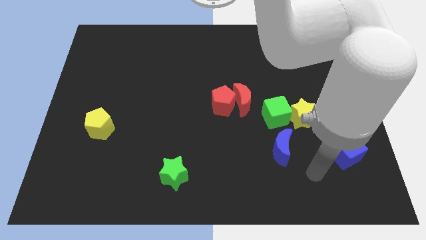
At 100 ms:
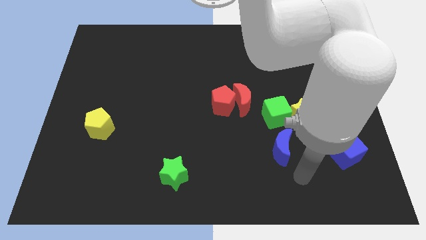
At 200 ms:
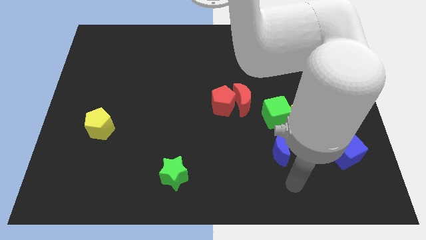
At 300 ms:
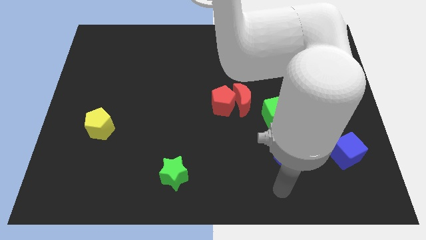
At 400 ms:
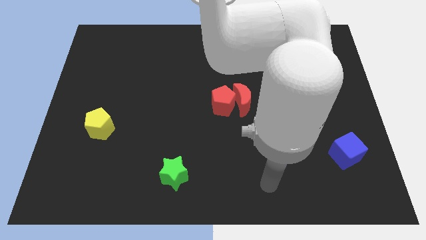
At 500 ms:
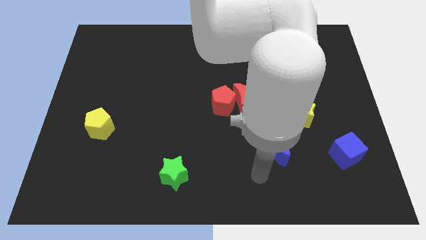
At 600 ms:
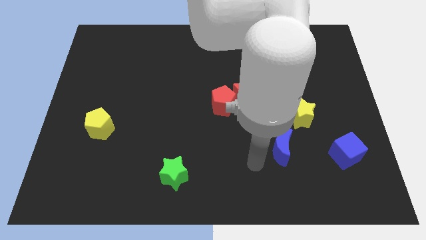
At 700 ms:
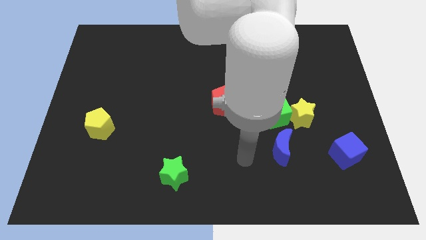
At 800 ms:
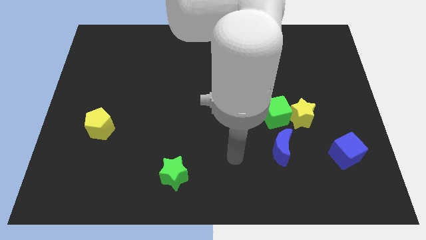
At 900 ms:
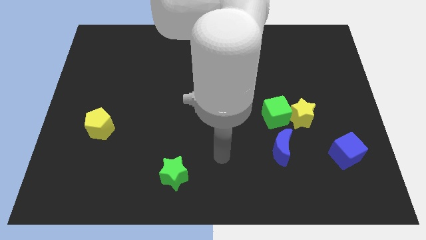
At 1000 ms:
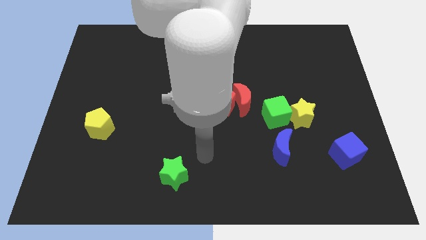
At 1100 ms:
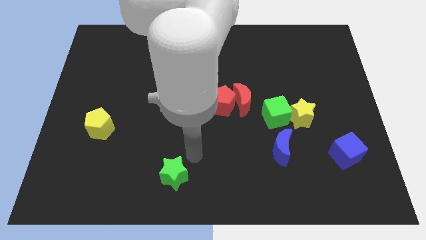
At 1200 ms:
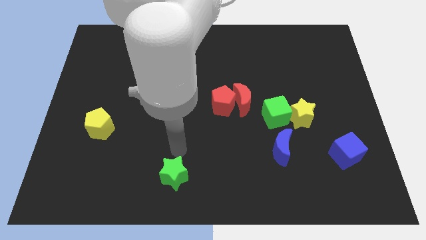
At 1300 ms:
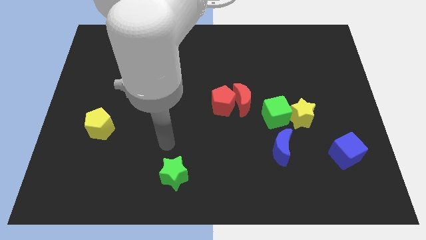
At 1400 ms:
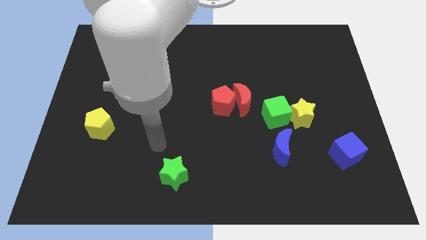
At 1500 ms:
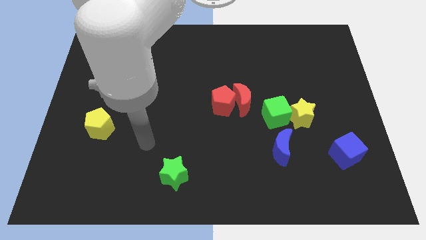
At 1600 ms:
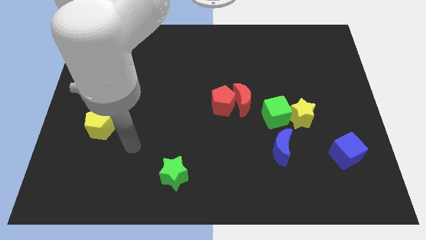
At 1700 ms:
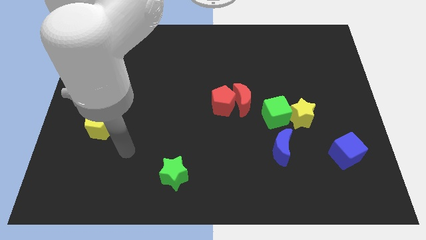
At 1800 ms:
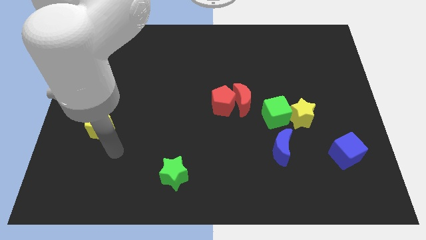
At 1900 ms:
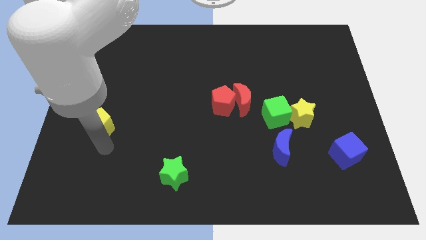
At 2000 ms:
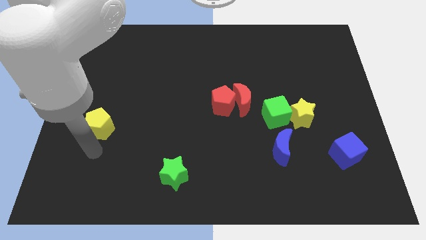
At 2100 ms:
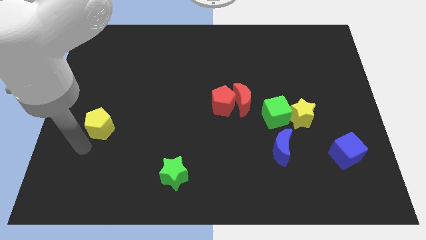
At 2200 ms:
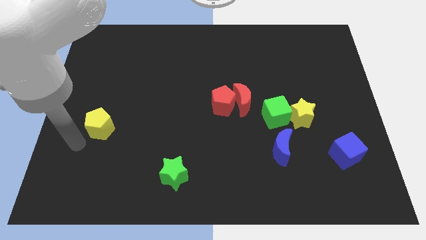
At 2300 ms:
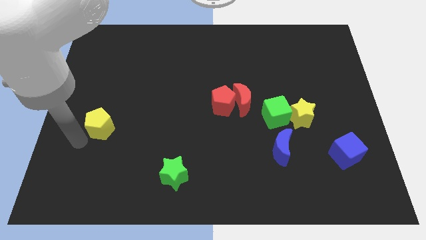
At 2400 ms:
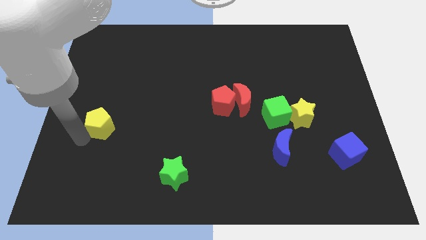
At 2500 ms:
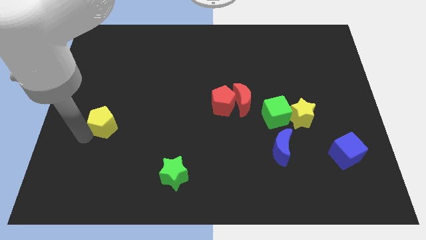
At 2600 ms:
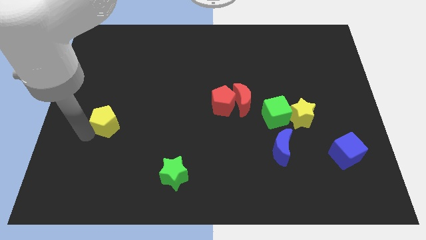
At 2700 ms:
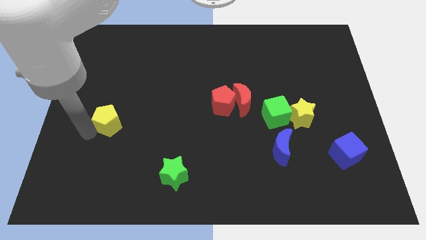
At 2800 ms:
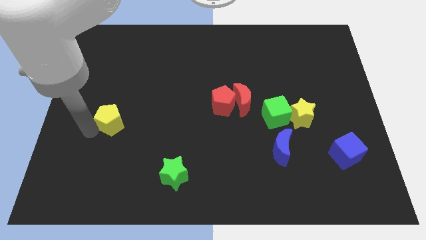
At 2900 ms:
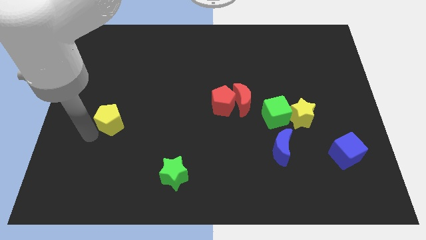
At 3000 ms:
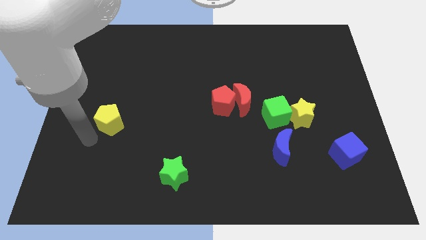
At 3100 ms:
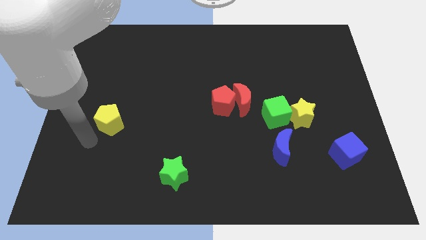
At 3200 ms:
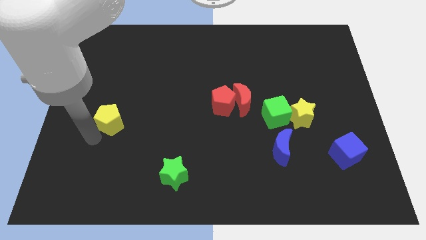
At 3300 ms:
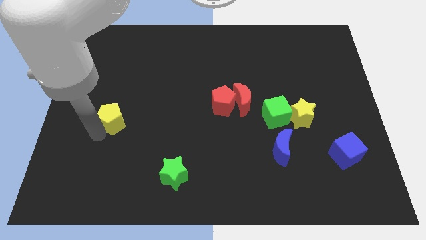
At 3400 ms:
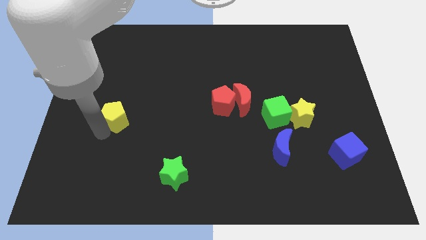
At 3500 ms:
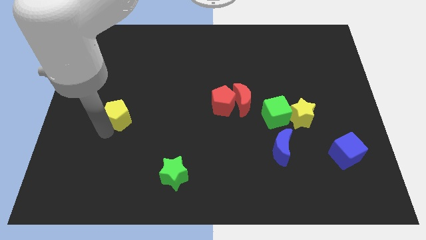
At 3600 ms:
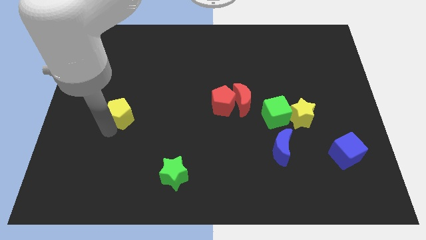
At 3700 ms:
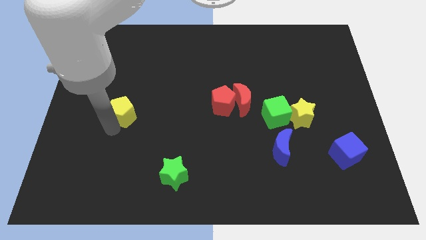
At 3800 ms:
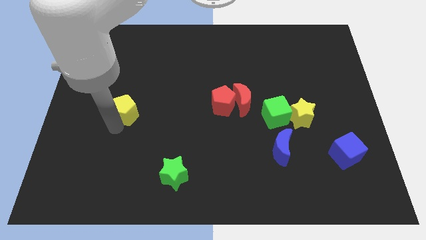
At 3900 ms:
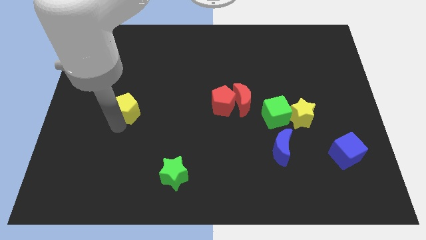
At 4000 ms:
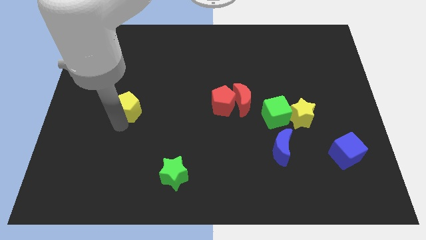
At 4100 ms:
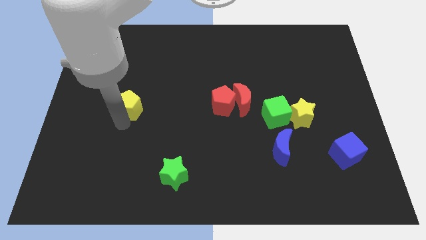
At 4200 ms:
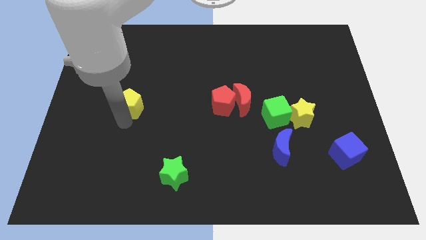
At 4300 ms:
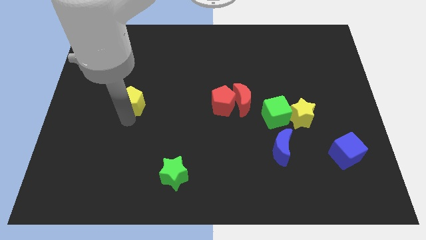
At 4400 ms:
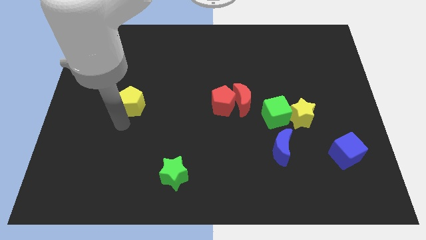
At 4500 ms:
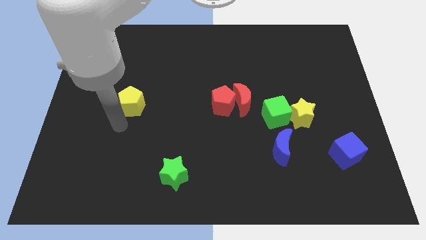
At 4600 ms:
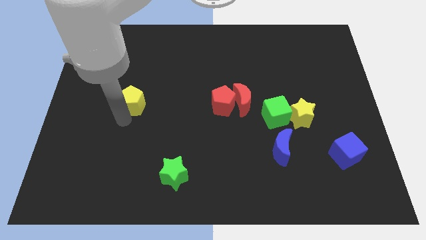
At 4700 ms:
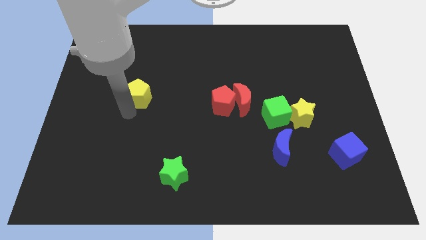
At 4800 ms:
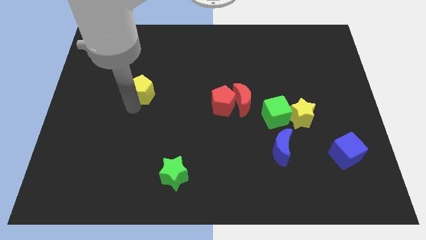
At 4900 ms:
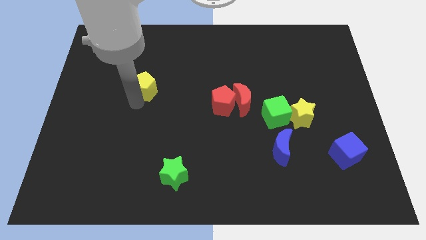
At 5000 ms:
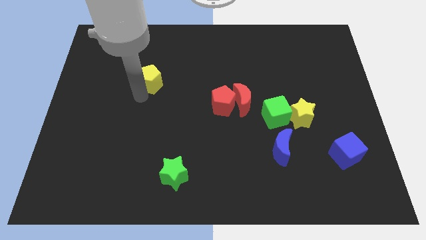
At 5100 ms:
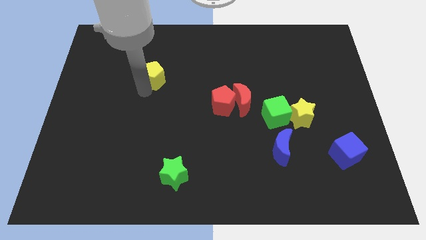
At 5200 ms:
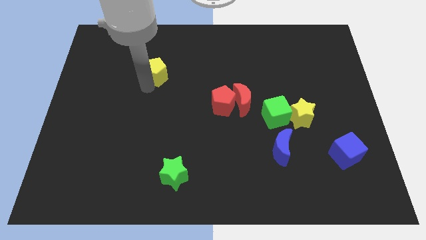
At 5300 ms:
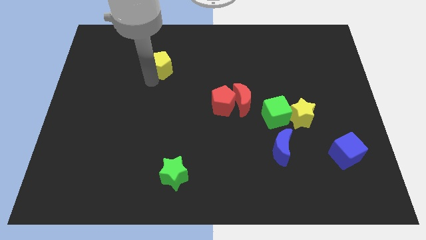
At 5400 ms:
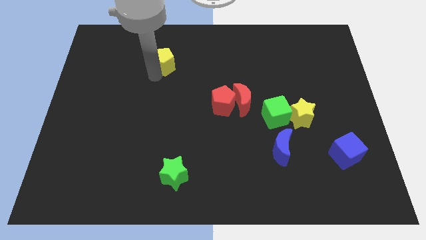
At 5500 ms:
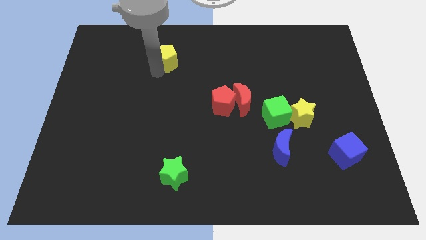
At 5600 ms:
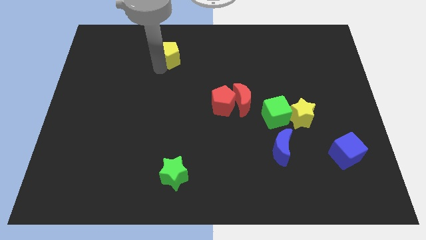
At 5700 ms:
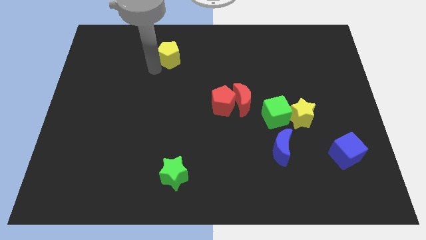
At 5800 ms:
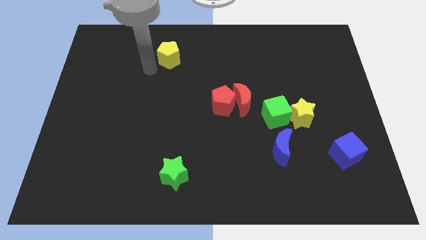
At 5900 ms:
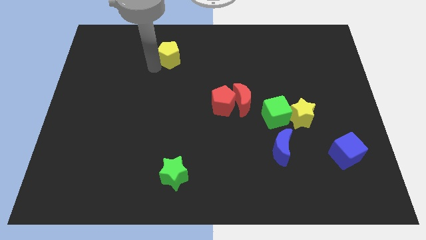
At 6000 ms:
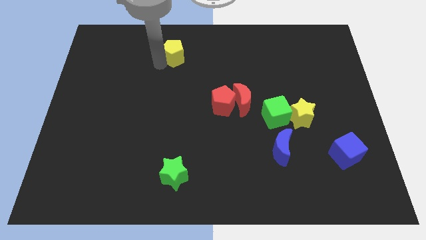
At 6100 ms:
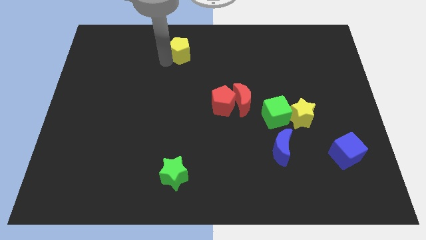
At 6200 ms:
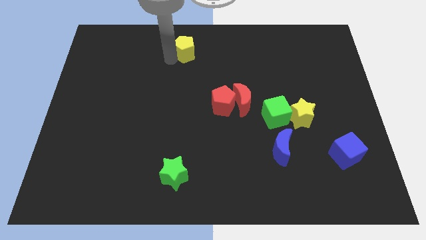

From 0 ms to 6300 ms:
slide the yellow pentagon to the top side
